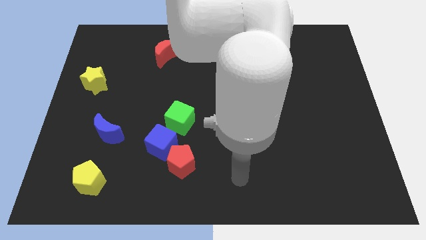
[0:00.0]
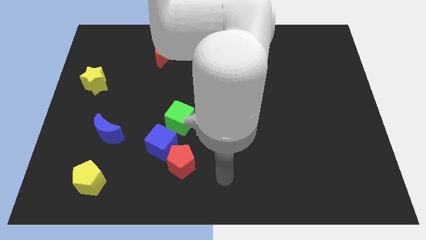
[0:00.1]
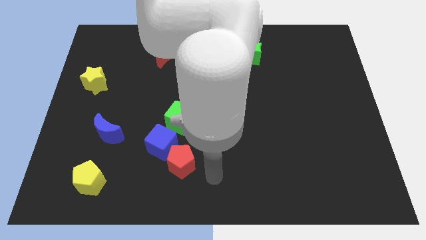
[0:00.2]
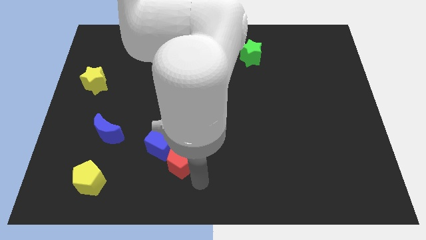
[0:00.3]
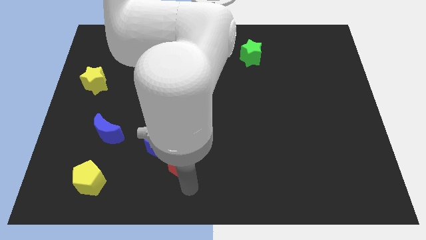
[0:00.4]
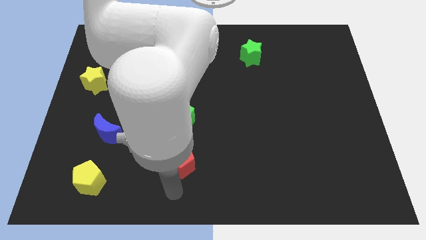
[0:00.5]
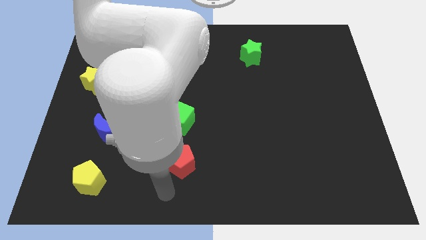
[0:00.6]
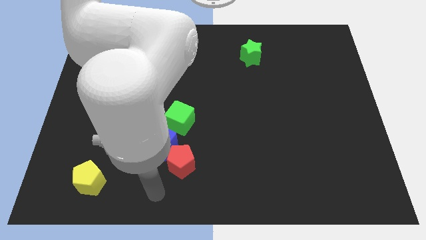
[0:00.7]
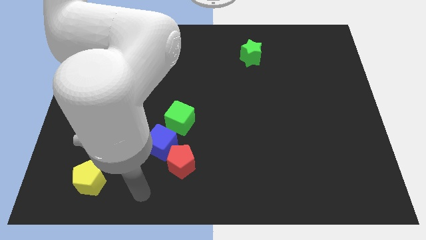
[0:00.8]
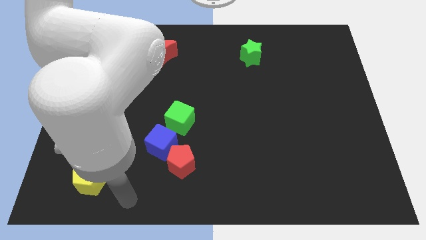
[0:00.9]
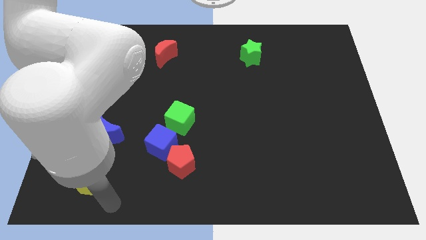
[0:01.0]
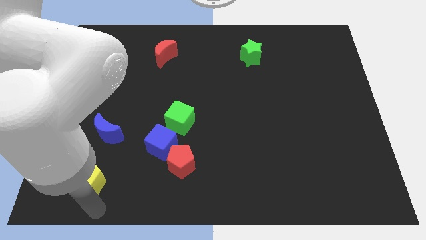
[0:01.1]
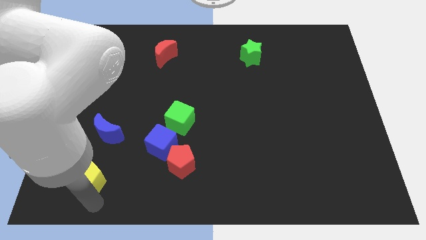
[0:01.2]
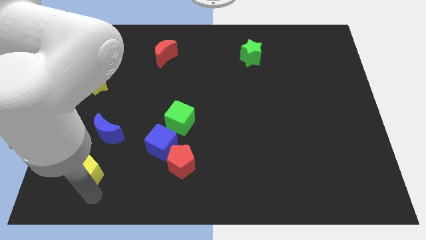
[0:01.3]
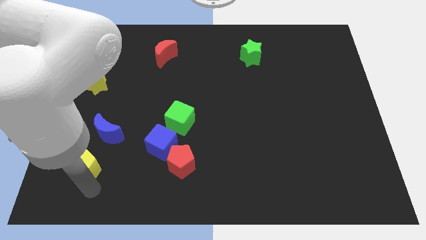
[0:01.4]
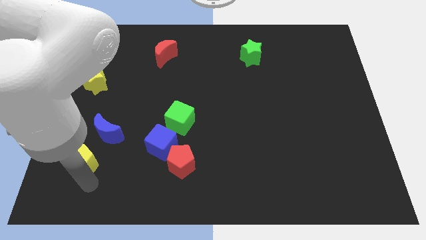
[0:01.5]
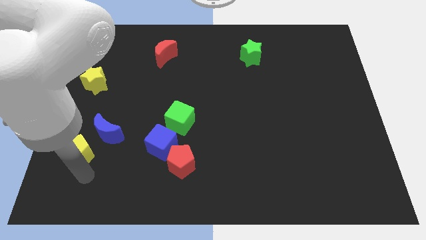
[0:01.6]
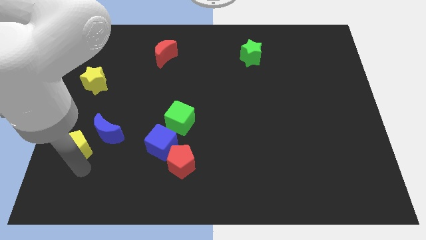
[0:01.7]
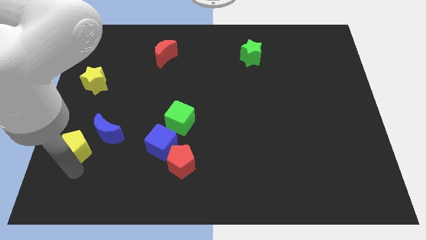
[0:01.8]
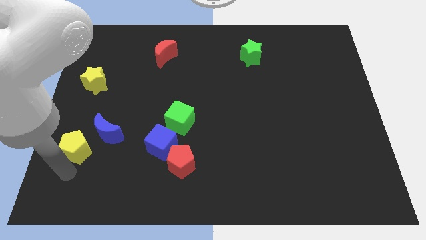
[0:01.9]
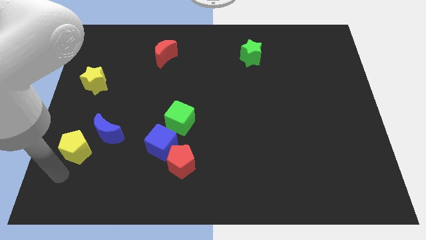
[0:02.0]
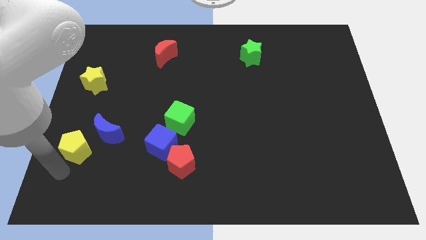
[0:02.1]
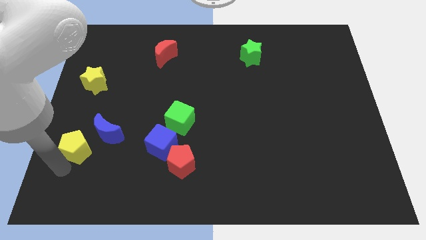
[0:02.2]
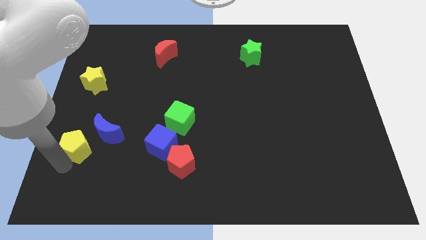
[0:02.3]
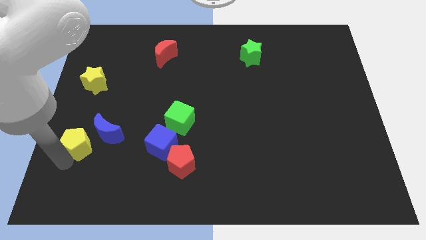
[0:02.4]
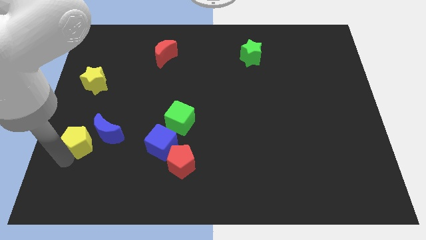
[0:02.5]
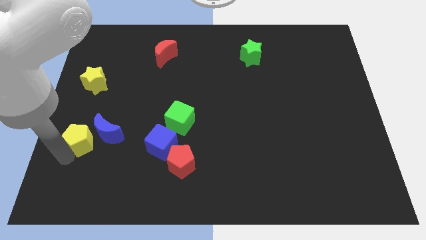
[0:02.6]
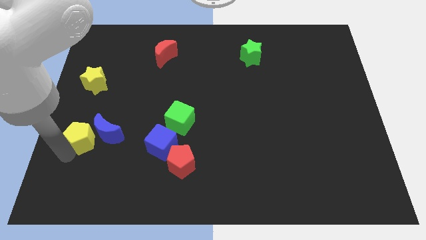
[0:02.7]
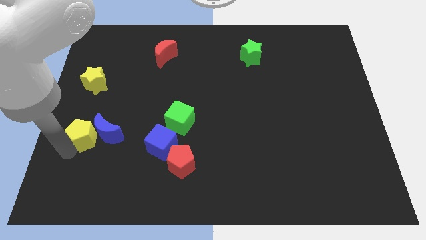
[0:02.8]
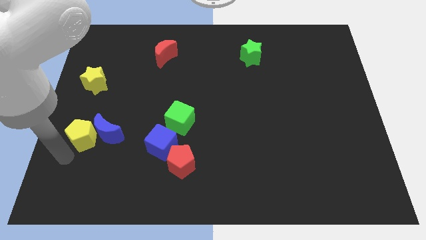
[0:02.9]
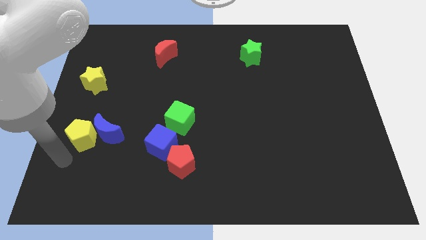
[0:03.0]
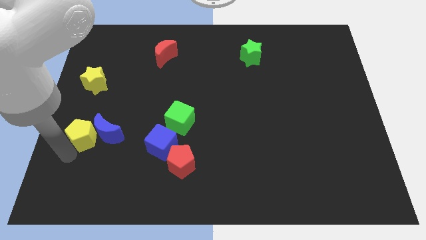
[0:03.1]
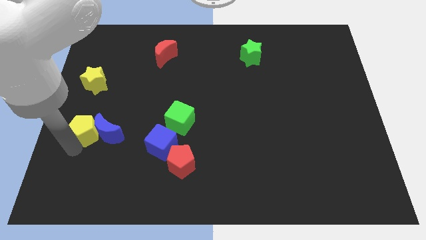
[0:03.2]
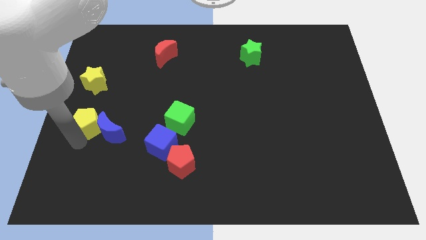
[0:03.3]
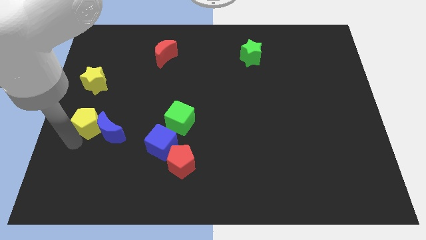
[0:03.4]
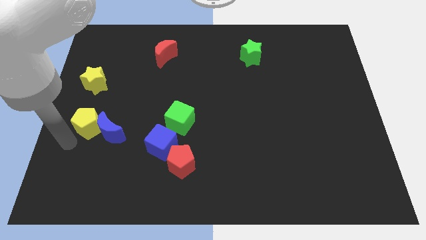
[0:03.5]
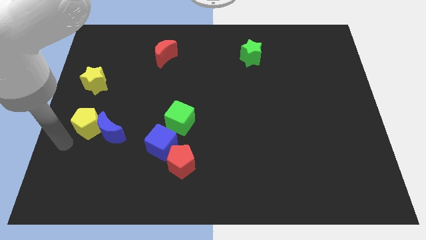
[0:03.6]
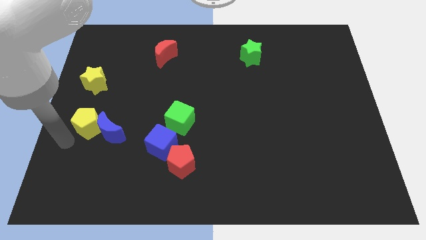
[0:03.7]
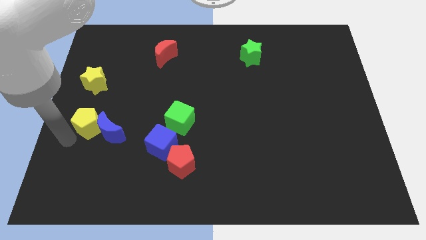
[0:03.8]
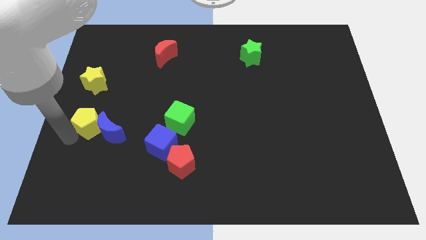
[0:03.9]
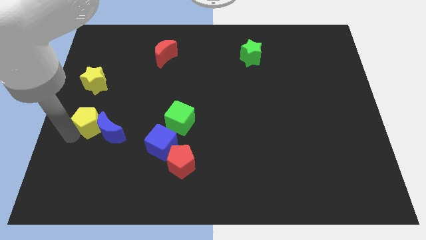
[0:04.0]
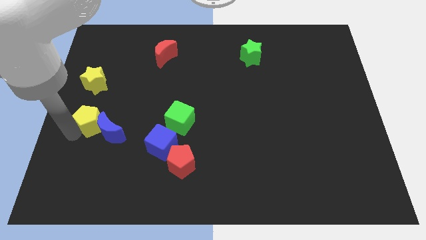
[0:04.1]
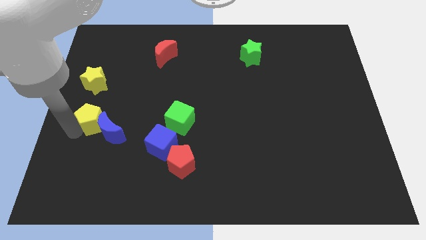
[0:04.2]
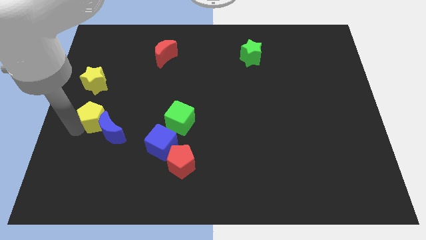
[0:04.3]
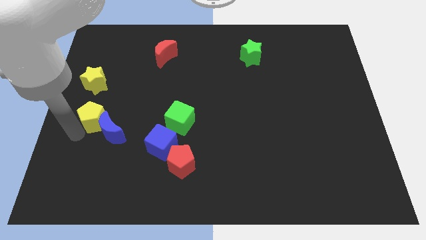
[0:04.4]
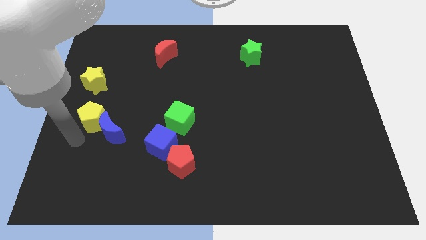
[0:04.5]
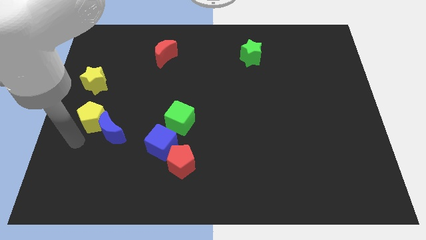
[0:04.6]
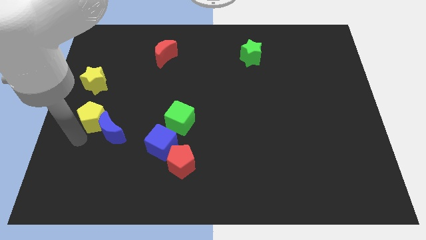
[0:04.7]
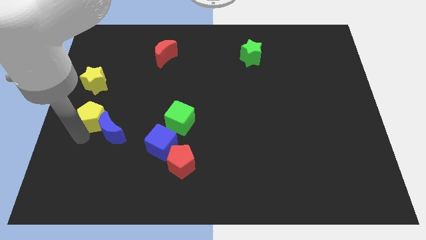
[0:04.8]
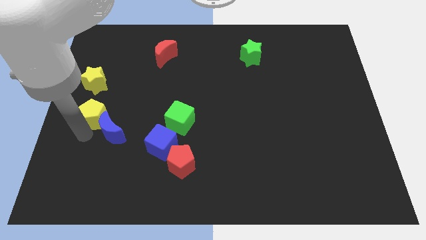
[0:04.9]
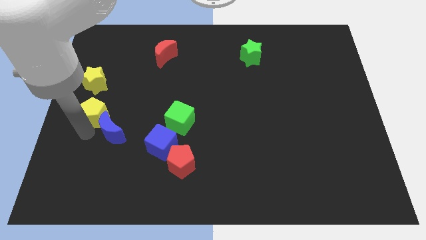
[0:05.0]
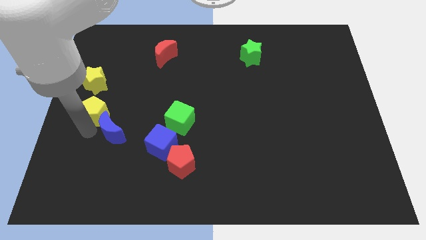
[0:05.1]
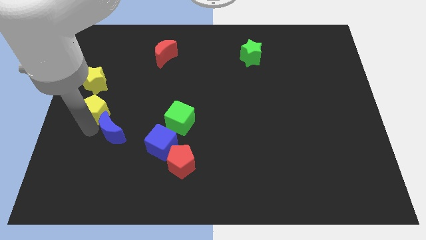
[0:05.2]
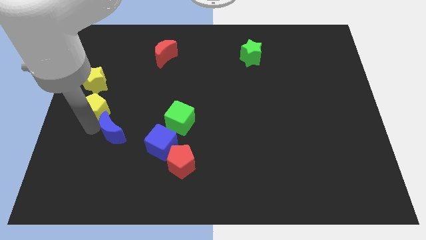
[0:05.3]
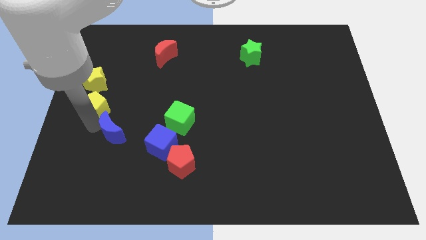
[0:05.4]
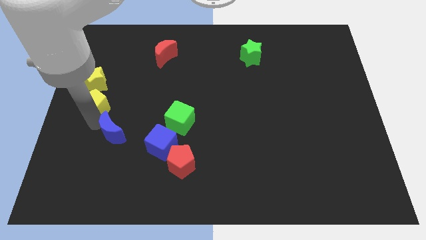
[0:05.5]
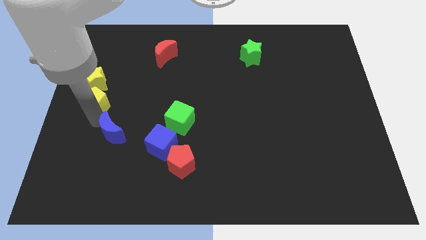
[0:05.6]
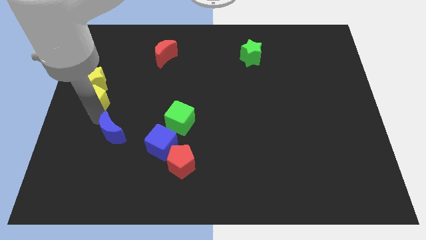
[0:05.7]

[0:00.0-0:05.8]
push the yellow pentagon upwards

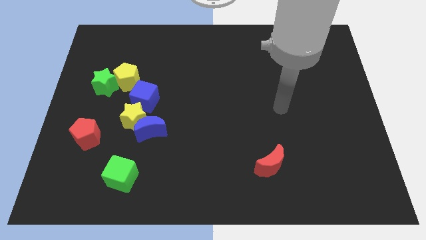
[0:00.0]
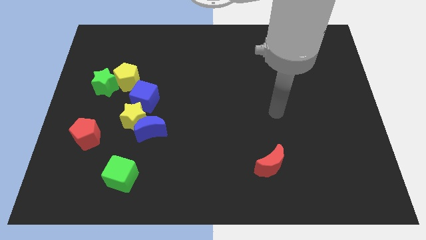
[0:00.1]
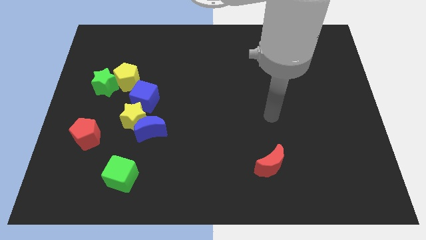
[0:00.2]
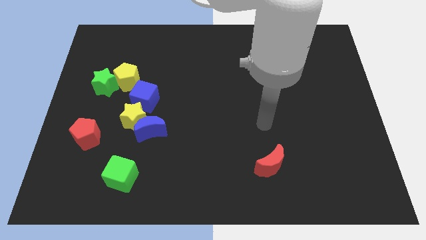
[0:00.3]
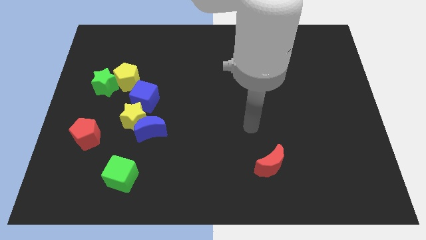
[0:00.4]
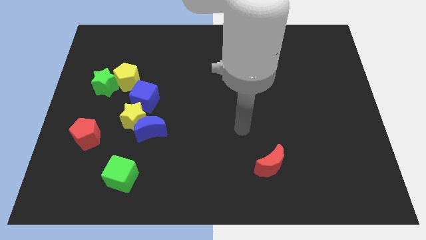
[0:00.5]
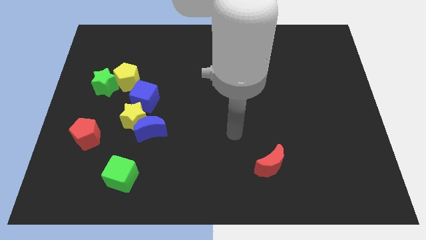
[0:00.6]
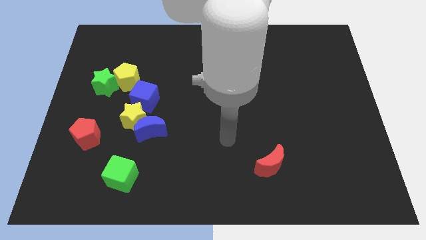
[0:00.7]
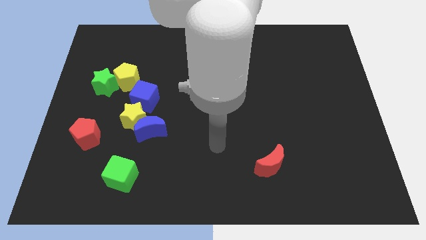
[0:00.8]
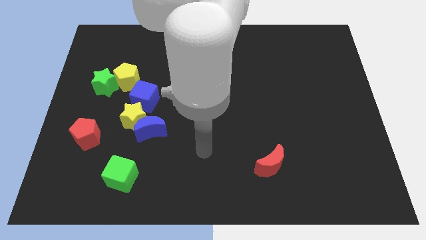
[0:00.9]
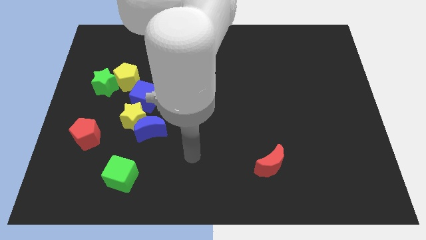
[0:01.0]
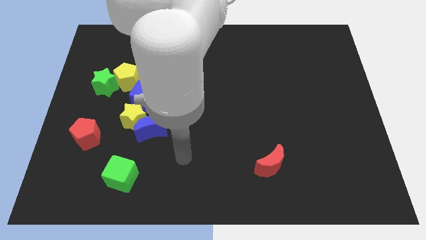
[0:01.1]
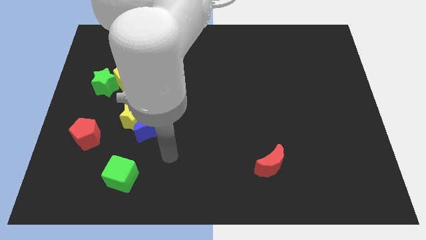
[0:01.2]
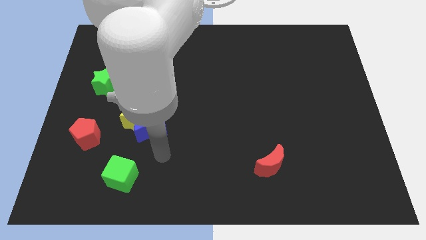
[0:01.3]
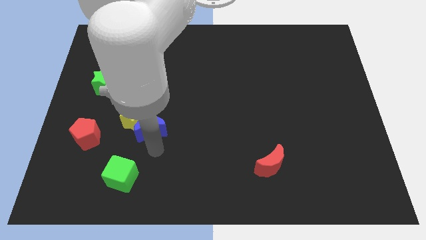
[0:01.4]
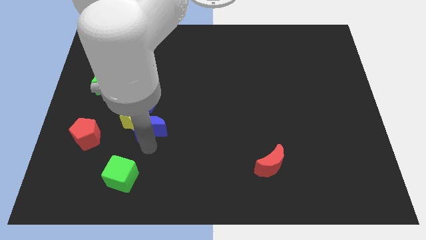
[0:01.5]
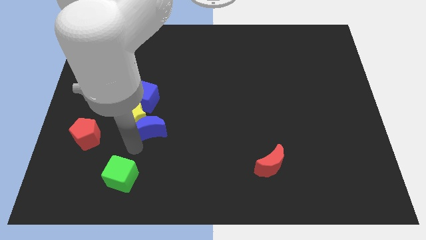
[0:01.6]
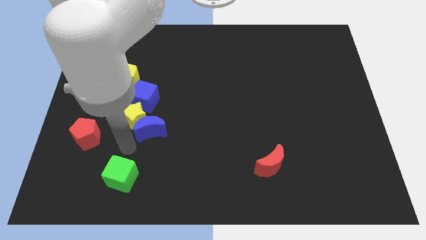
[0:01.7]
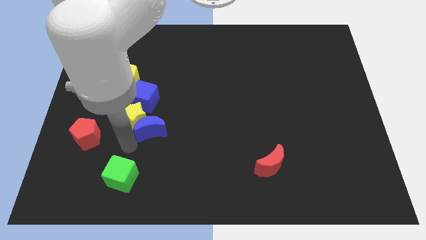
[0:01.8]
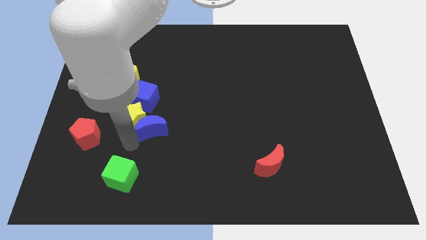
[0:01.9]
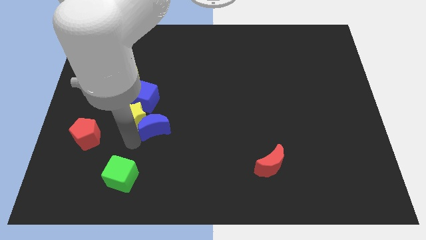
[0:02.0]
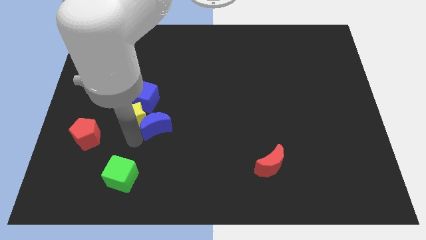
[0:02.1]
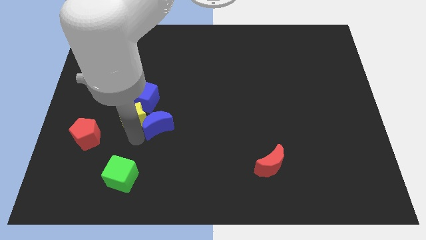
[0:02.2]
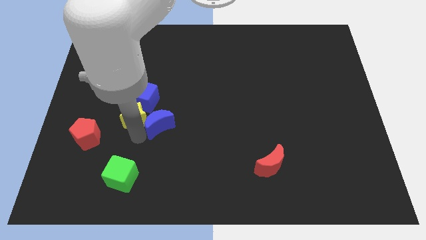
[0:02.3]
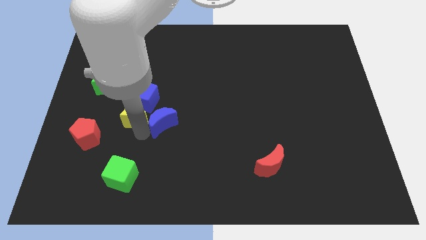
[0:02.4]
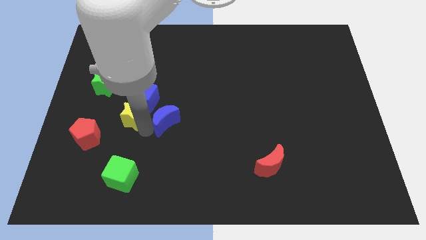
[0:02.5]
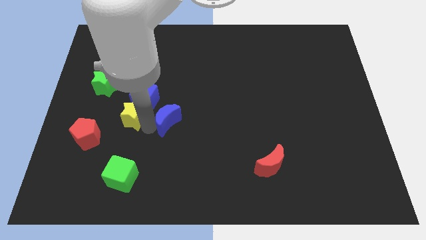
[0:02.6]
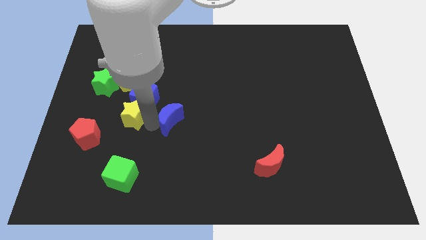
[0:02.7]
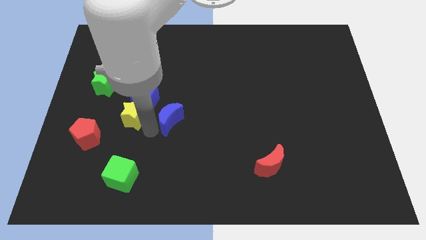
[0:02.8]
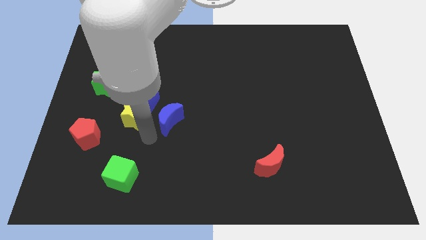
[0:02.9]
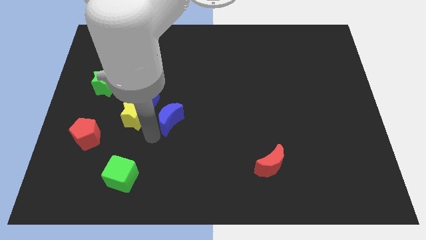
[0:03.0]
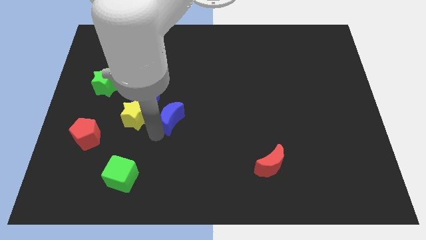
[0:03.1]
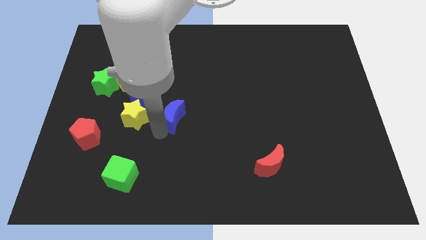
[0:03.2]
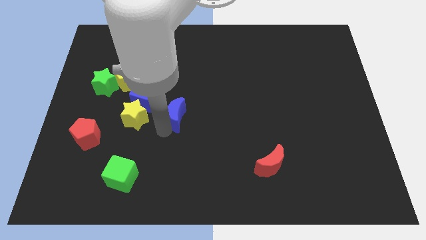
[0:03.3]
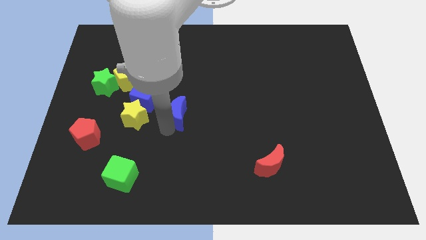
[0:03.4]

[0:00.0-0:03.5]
move the blue moon somewhat upwards and right diagonally
